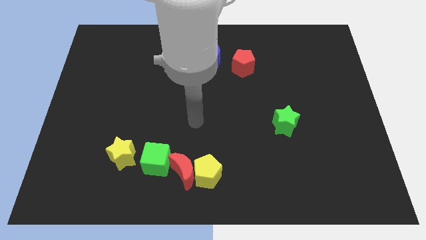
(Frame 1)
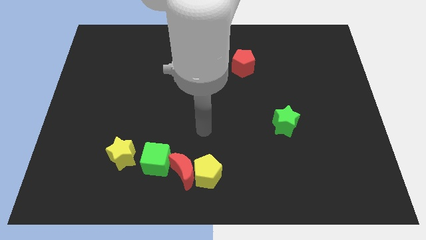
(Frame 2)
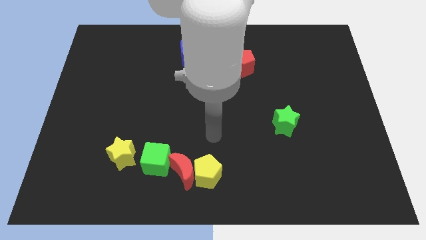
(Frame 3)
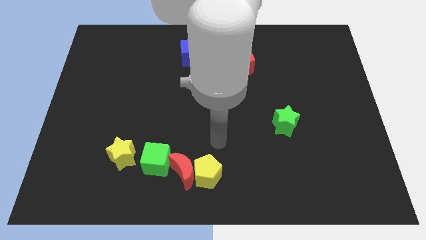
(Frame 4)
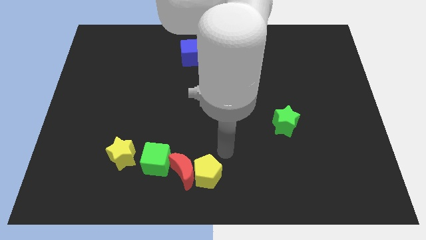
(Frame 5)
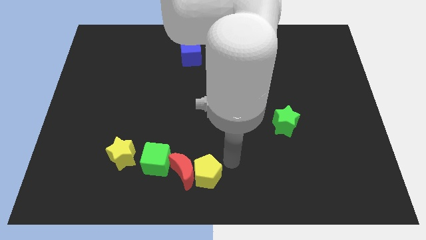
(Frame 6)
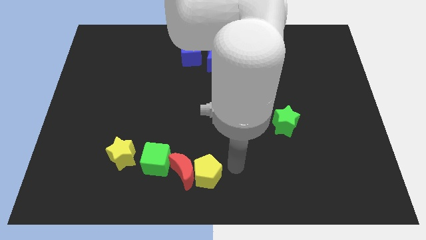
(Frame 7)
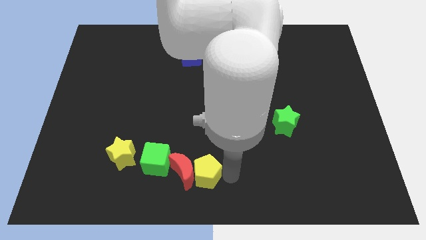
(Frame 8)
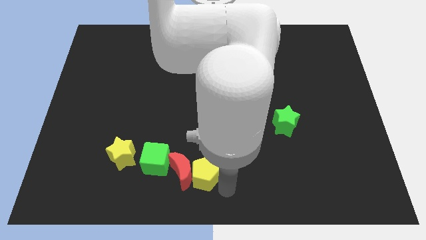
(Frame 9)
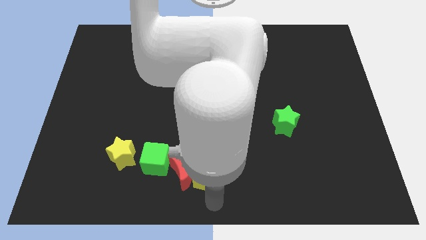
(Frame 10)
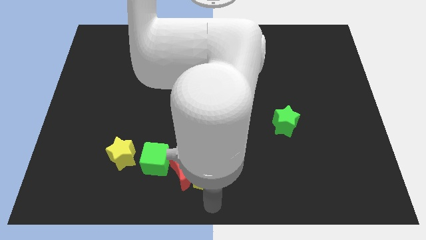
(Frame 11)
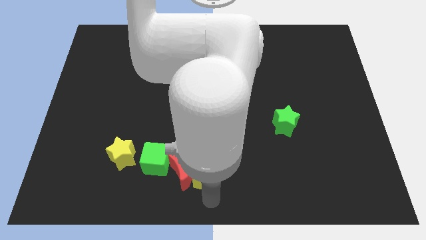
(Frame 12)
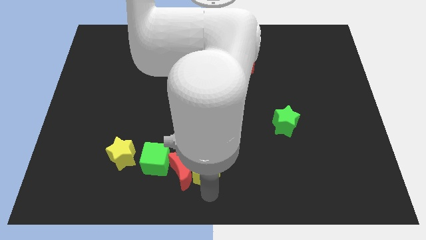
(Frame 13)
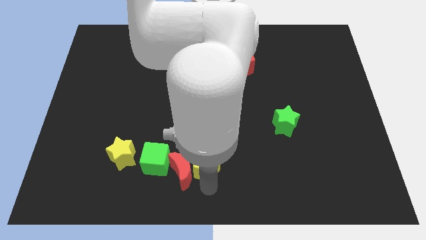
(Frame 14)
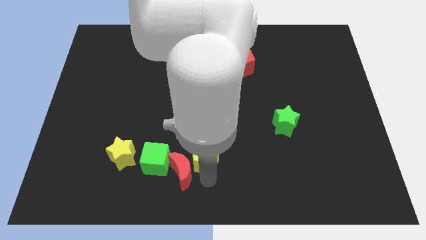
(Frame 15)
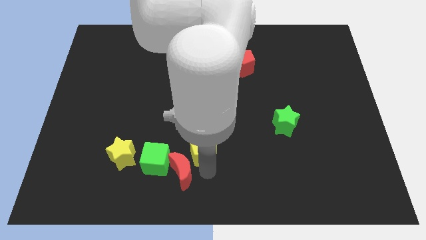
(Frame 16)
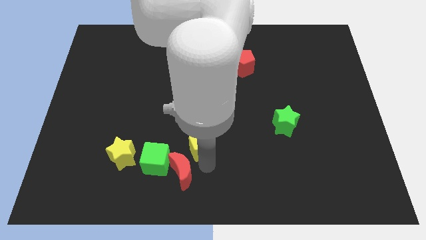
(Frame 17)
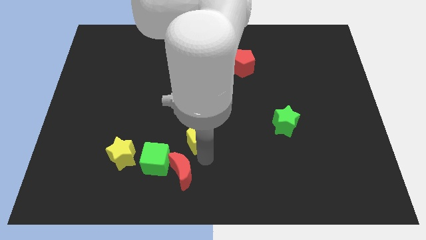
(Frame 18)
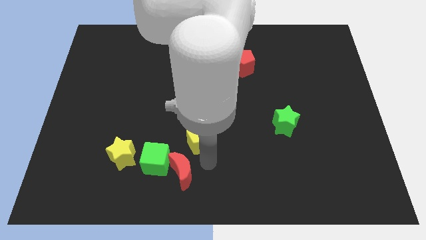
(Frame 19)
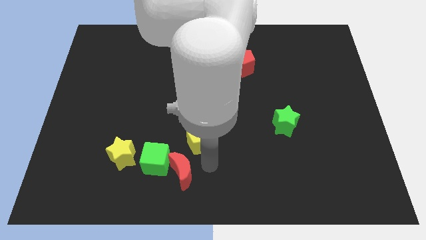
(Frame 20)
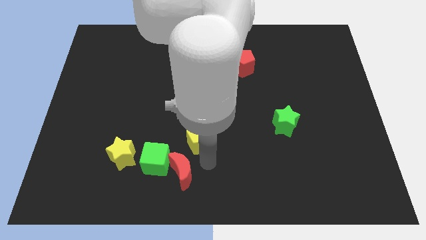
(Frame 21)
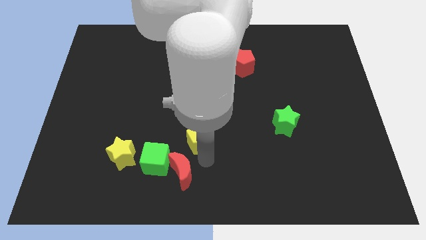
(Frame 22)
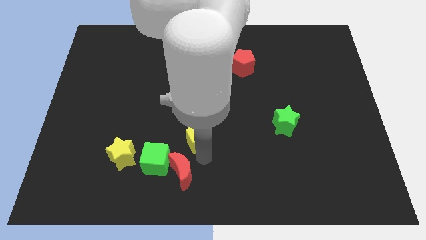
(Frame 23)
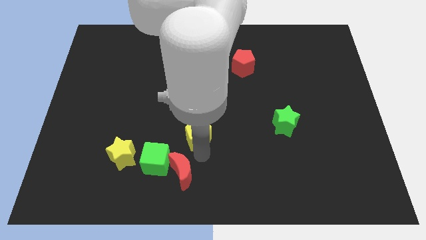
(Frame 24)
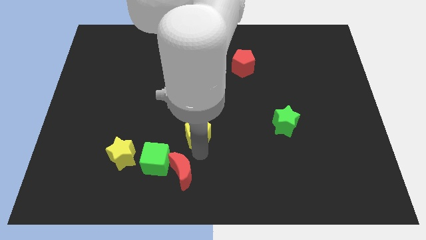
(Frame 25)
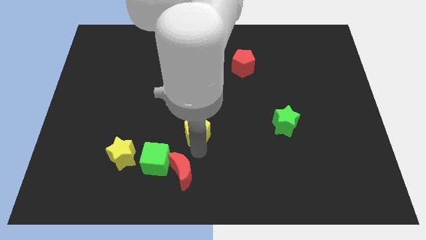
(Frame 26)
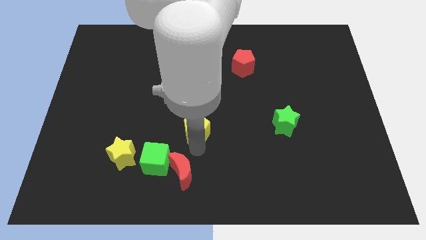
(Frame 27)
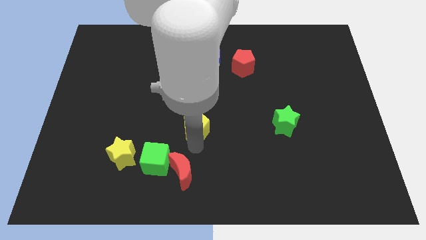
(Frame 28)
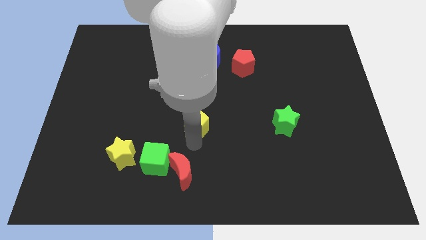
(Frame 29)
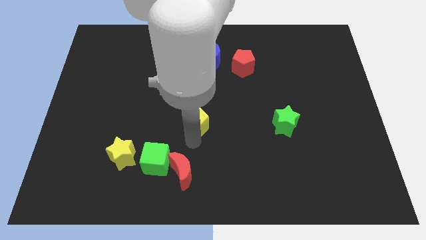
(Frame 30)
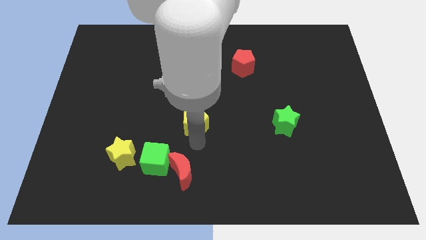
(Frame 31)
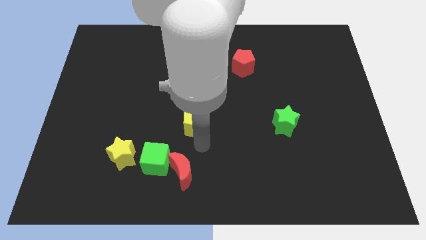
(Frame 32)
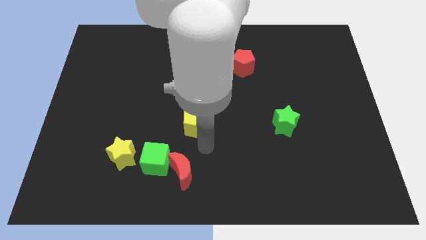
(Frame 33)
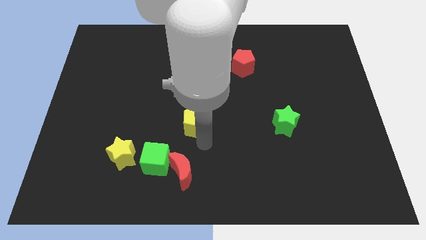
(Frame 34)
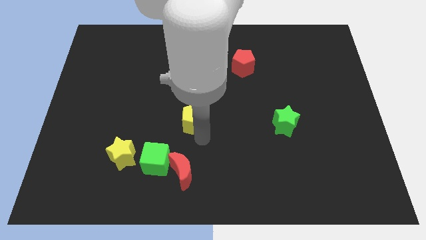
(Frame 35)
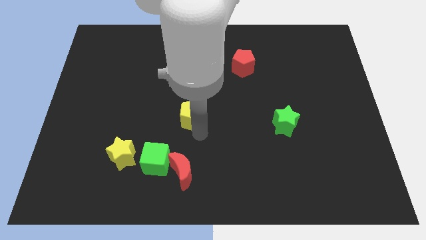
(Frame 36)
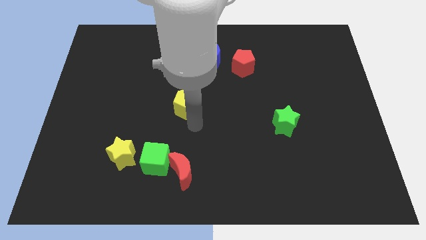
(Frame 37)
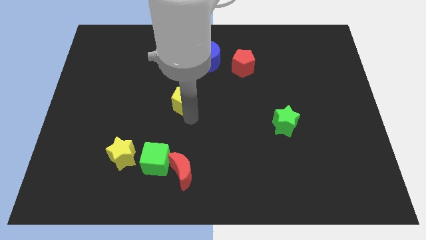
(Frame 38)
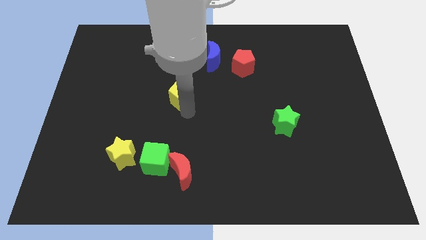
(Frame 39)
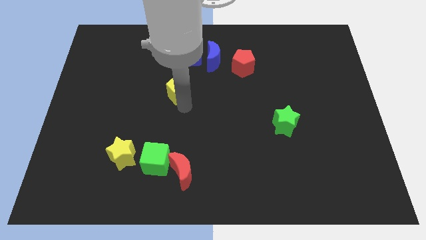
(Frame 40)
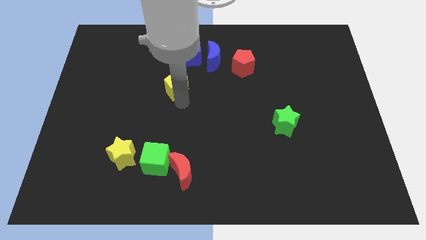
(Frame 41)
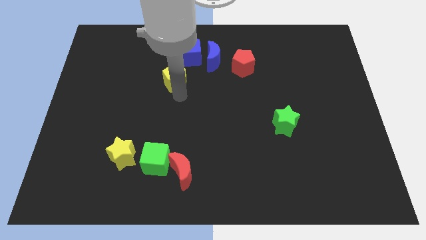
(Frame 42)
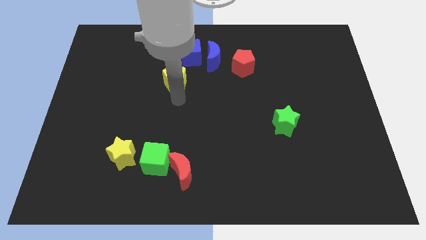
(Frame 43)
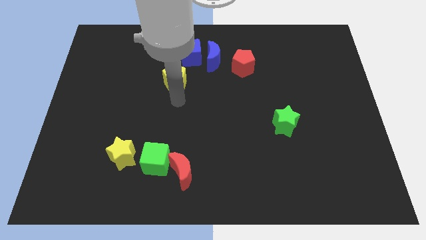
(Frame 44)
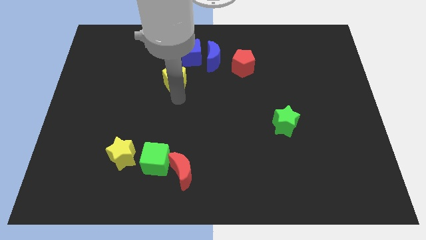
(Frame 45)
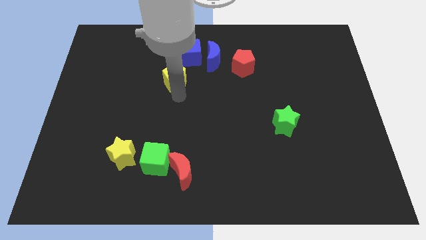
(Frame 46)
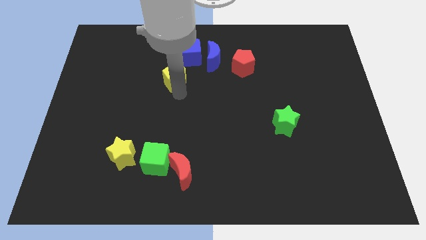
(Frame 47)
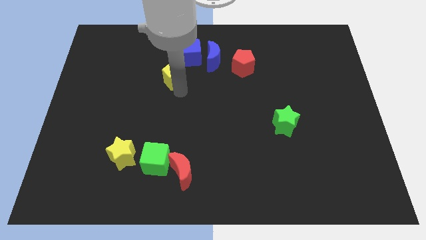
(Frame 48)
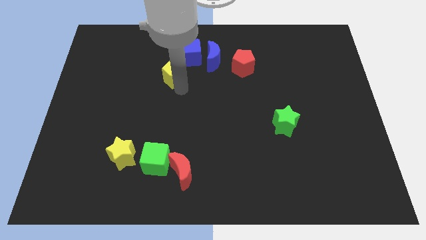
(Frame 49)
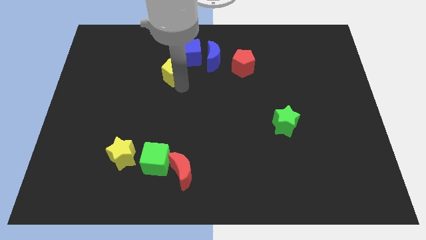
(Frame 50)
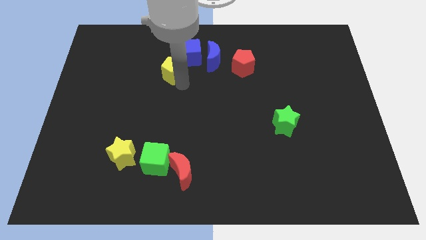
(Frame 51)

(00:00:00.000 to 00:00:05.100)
push the yellow pentagon just left of the blue moon

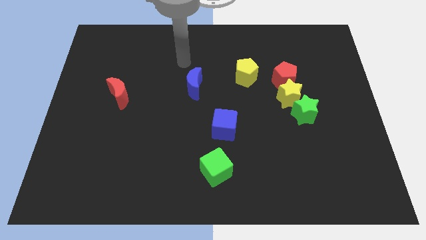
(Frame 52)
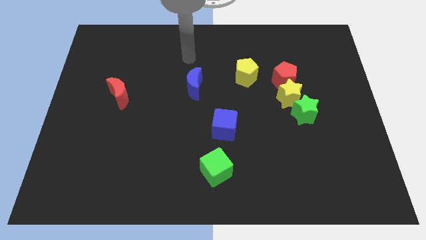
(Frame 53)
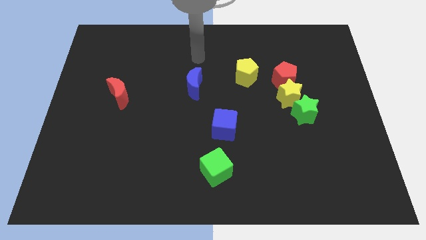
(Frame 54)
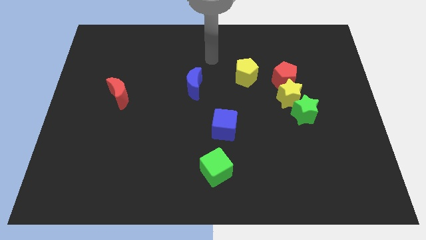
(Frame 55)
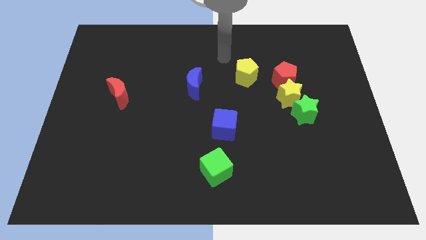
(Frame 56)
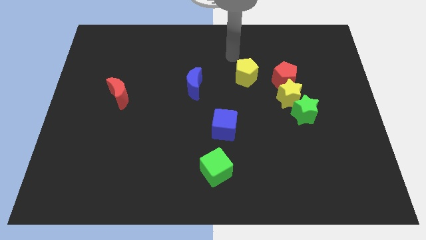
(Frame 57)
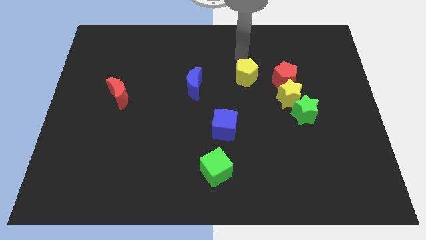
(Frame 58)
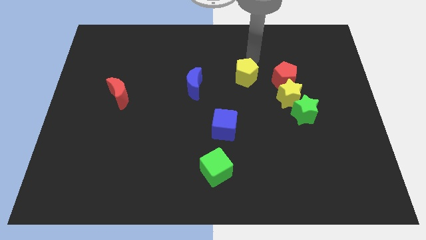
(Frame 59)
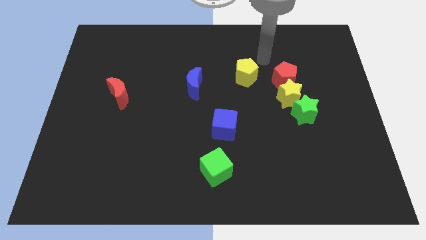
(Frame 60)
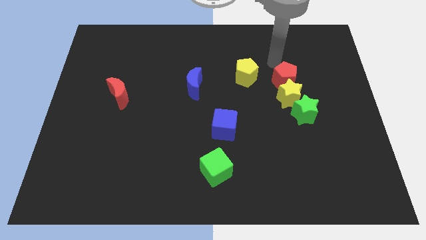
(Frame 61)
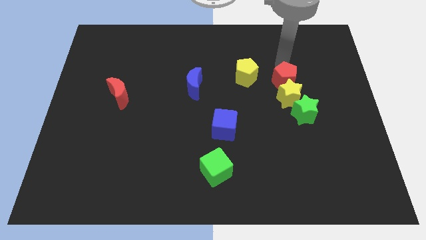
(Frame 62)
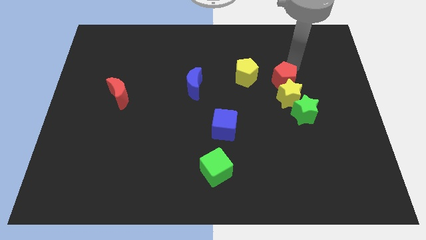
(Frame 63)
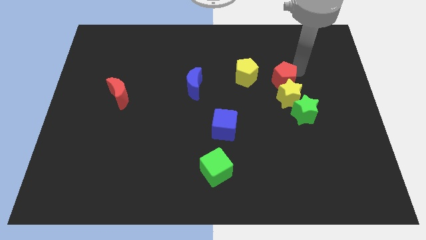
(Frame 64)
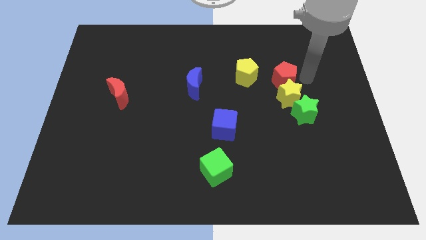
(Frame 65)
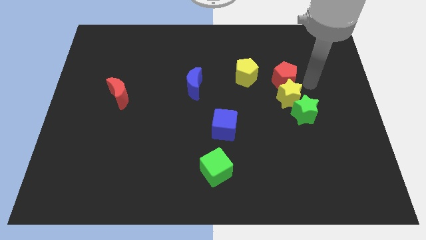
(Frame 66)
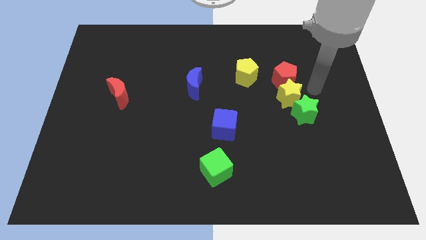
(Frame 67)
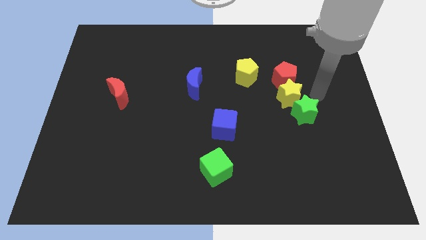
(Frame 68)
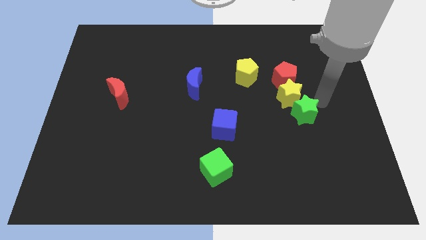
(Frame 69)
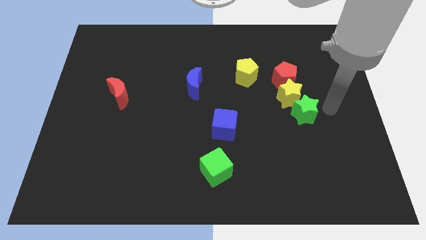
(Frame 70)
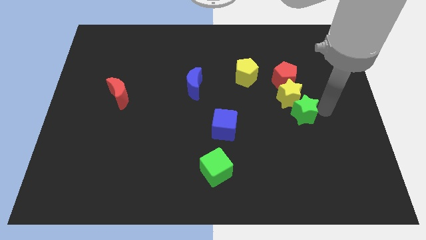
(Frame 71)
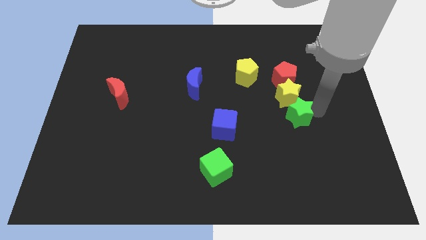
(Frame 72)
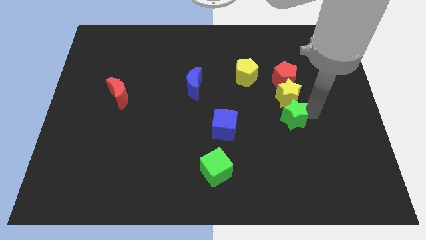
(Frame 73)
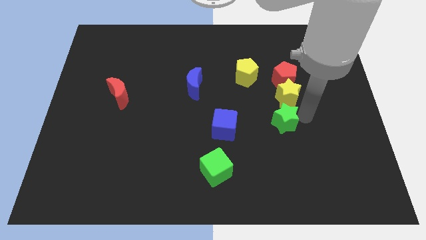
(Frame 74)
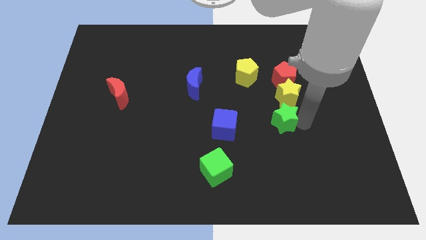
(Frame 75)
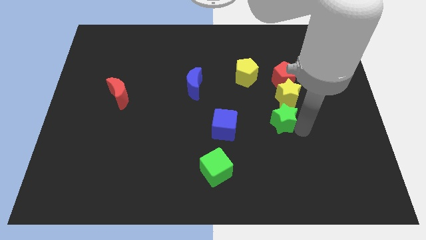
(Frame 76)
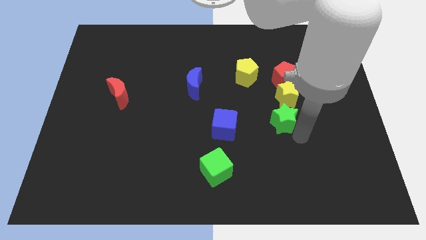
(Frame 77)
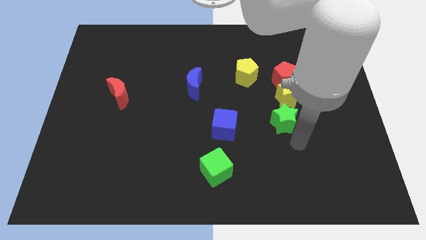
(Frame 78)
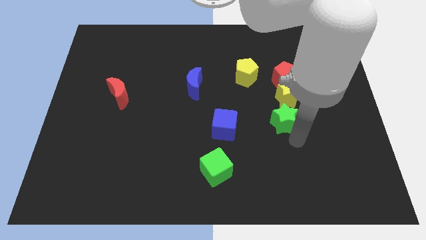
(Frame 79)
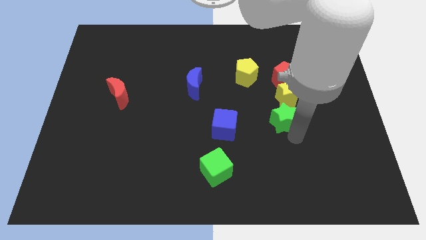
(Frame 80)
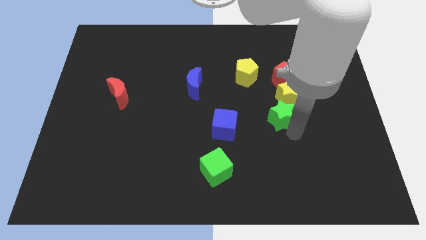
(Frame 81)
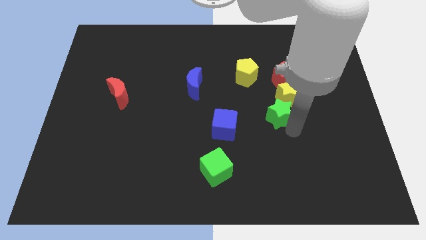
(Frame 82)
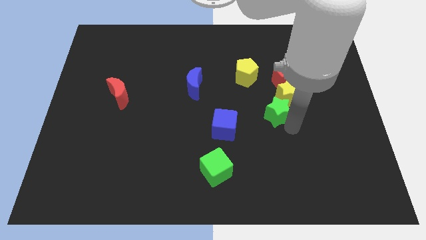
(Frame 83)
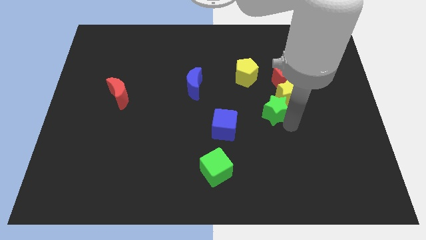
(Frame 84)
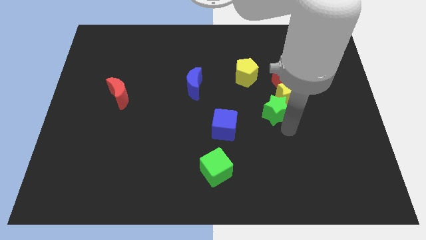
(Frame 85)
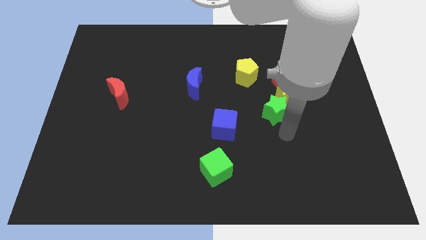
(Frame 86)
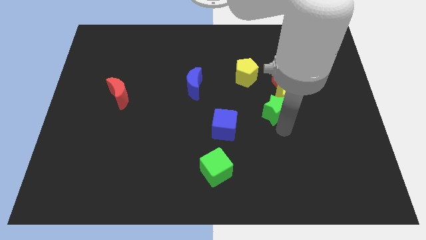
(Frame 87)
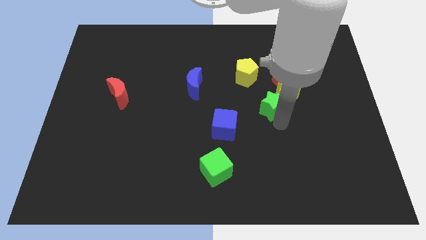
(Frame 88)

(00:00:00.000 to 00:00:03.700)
slide the green star diagonally down and to the left of the red pentagon
